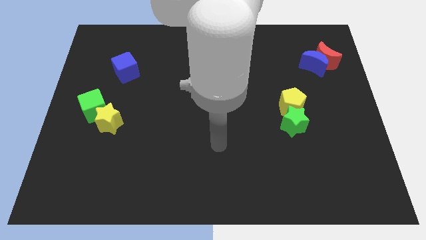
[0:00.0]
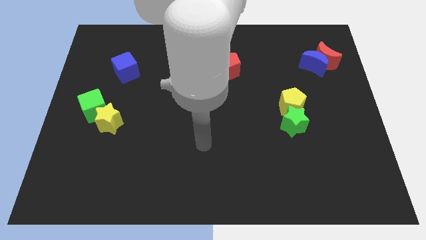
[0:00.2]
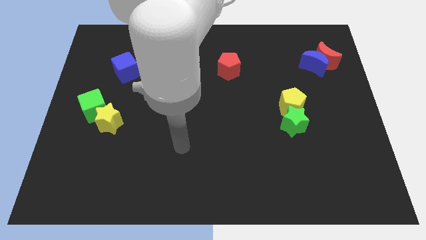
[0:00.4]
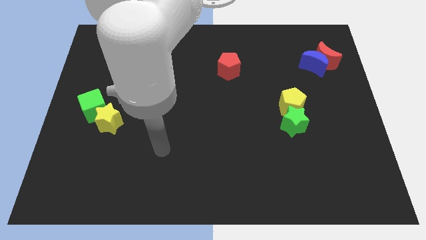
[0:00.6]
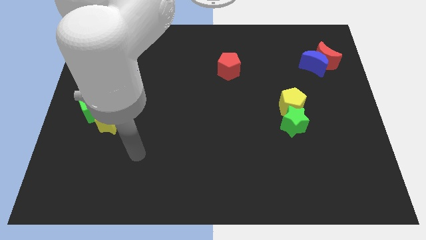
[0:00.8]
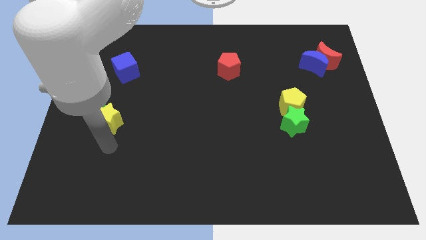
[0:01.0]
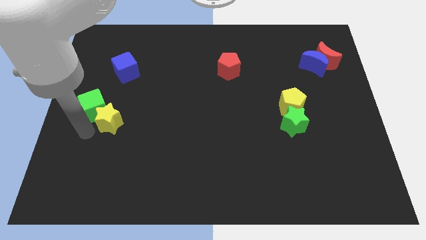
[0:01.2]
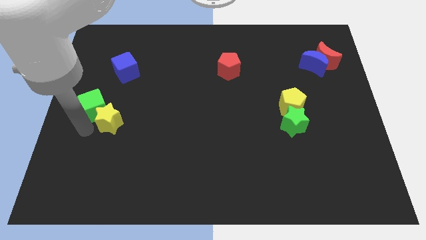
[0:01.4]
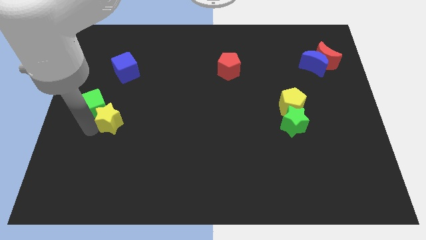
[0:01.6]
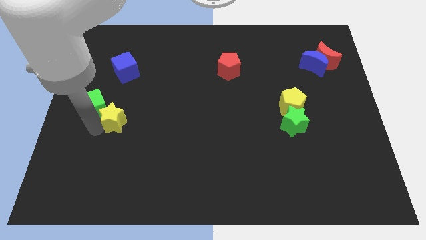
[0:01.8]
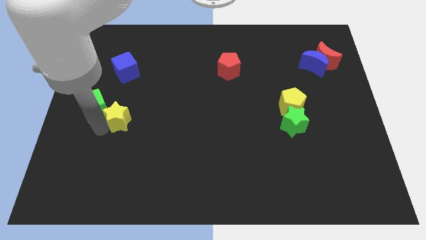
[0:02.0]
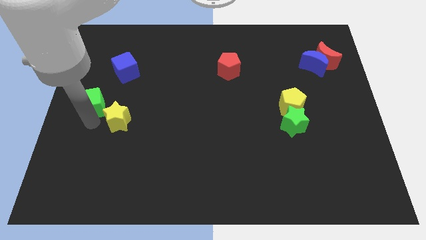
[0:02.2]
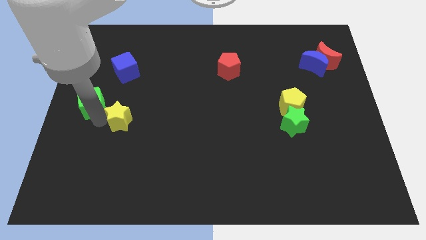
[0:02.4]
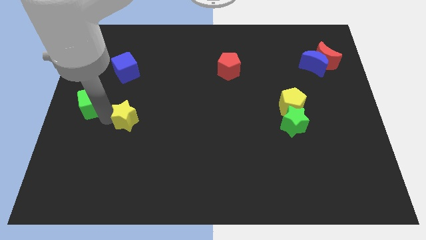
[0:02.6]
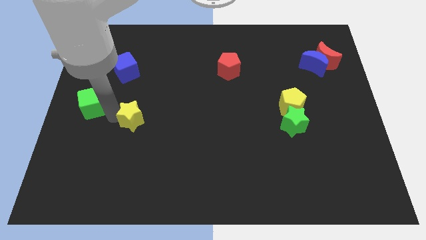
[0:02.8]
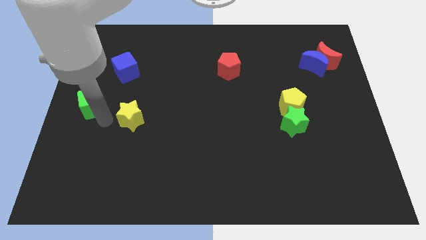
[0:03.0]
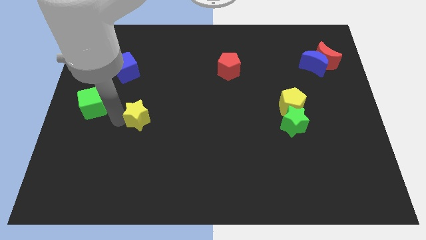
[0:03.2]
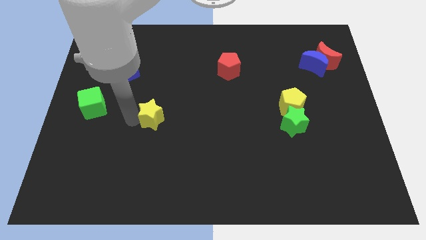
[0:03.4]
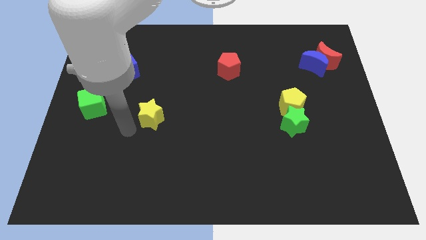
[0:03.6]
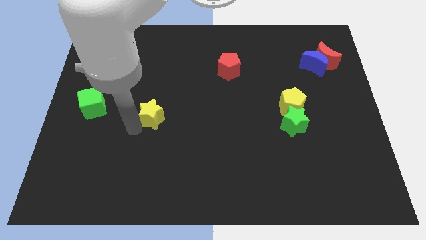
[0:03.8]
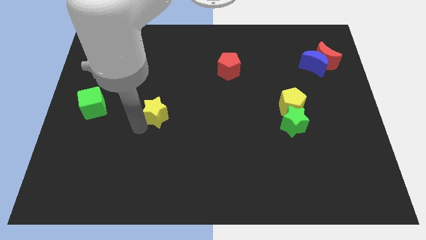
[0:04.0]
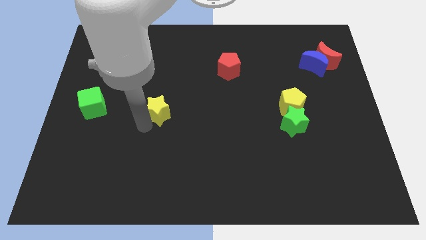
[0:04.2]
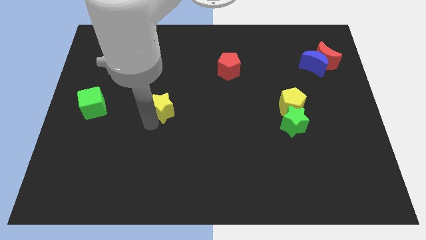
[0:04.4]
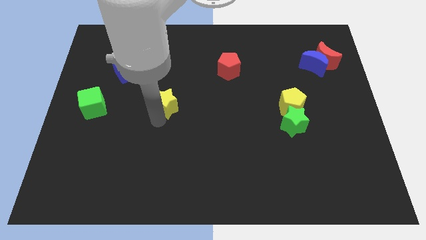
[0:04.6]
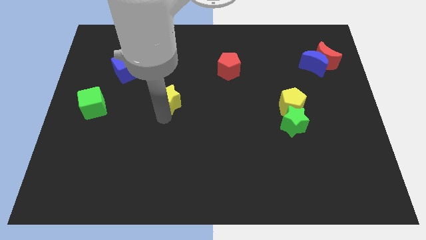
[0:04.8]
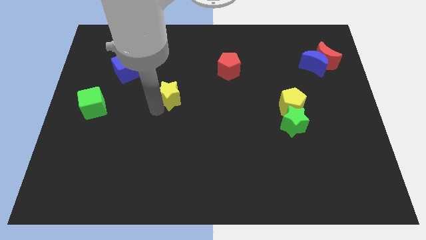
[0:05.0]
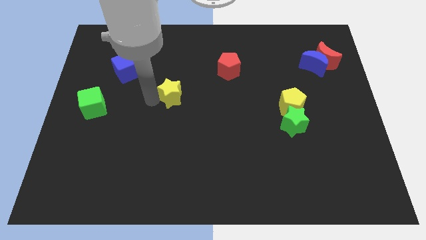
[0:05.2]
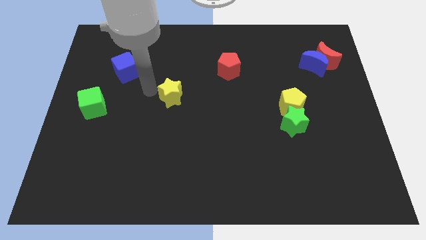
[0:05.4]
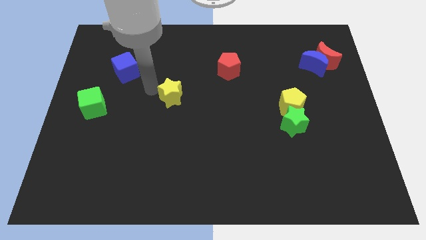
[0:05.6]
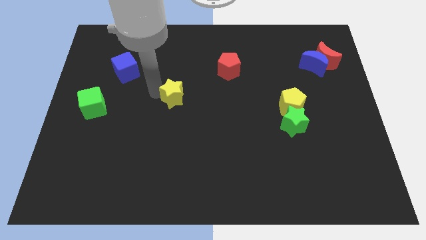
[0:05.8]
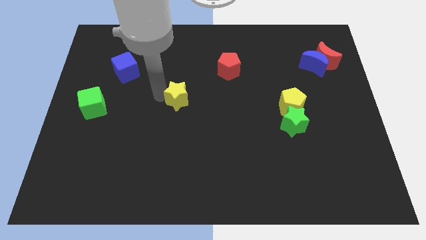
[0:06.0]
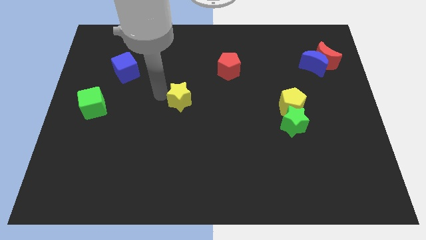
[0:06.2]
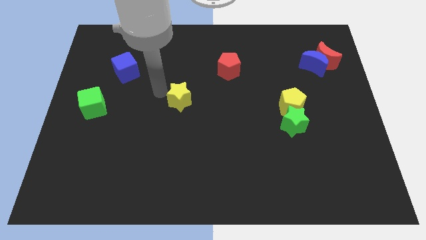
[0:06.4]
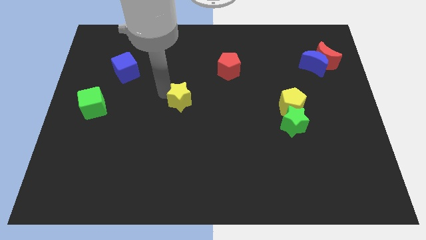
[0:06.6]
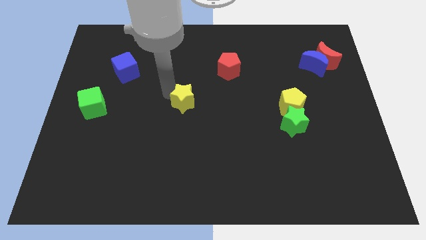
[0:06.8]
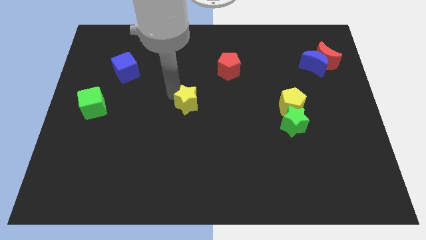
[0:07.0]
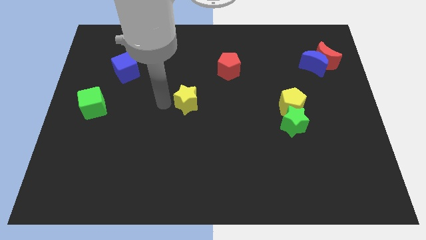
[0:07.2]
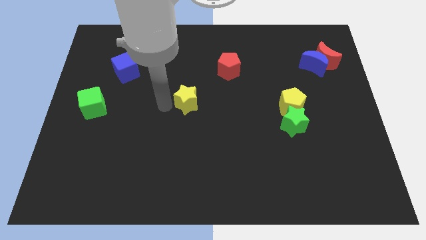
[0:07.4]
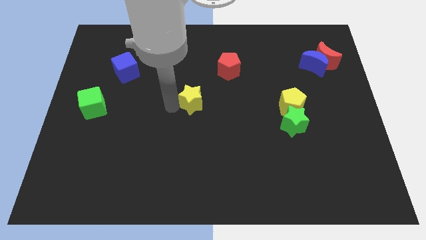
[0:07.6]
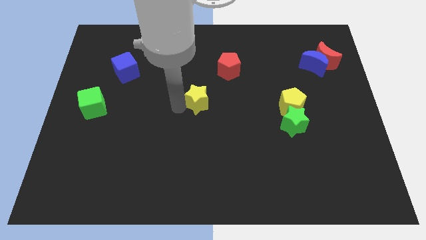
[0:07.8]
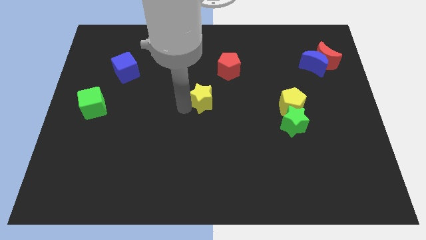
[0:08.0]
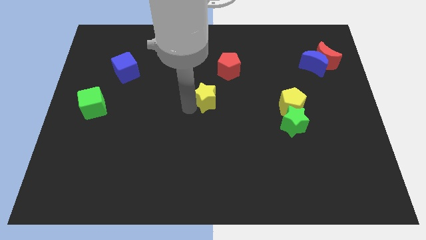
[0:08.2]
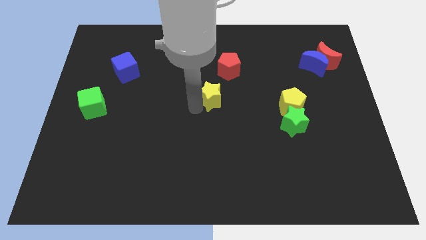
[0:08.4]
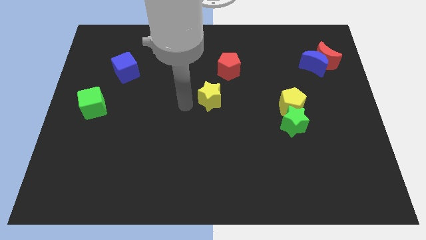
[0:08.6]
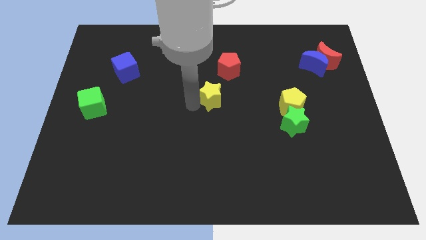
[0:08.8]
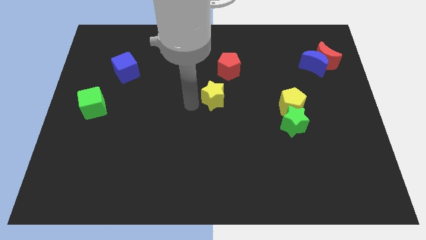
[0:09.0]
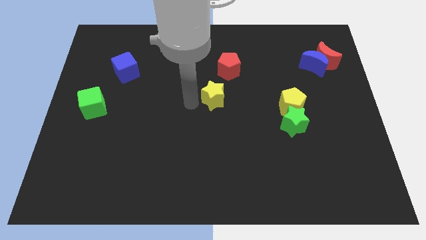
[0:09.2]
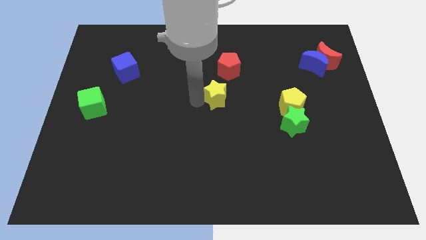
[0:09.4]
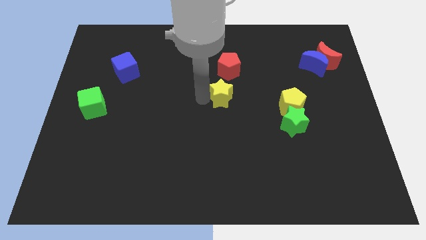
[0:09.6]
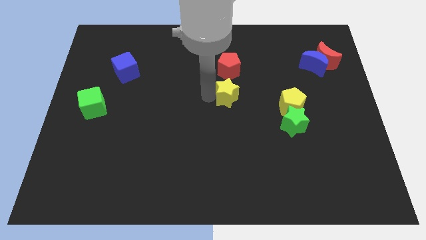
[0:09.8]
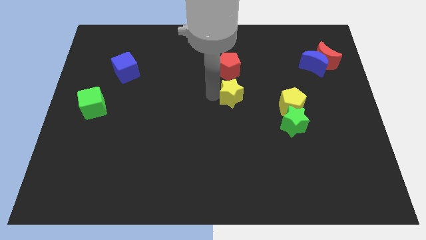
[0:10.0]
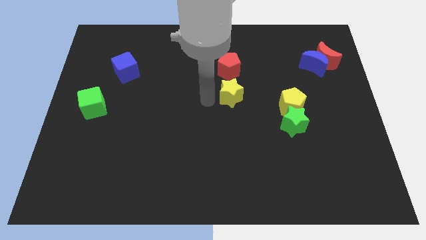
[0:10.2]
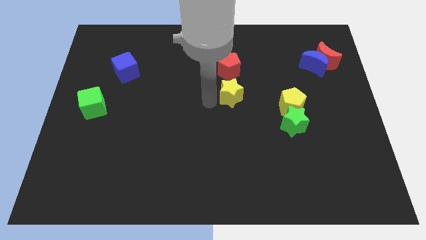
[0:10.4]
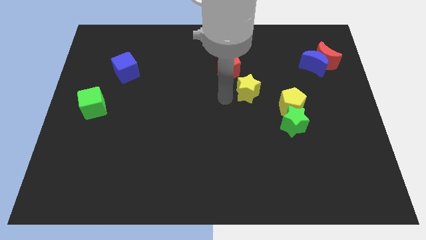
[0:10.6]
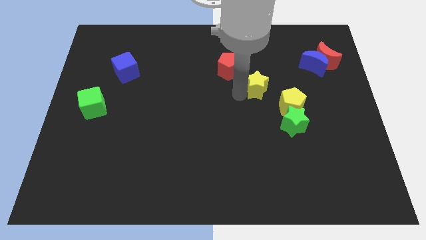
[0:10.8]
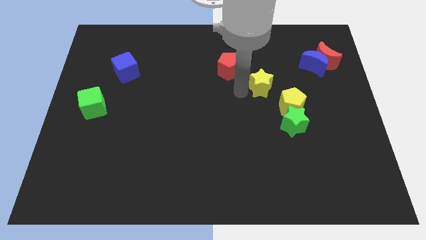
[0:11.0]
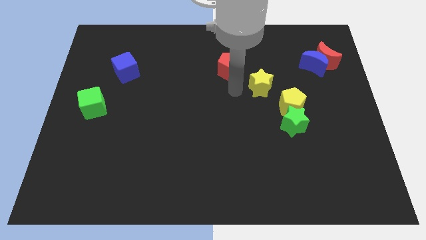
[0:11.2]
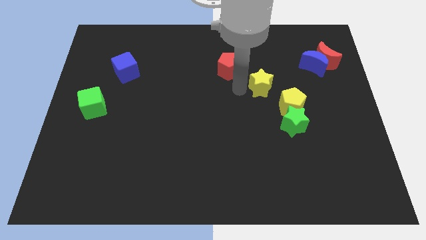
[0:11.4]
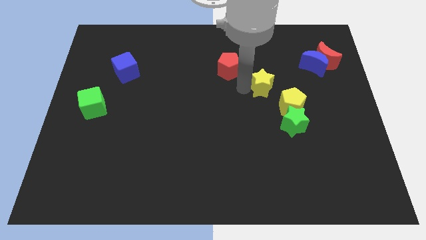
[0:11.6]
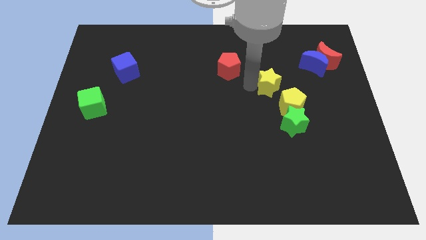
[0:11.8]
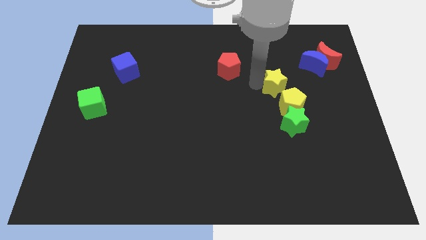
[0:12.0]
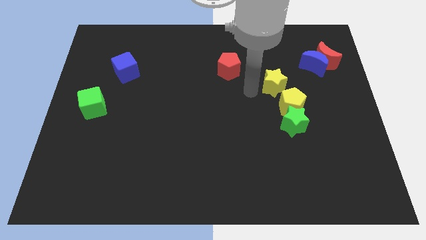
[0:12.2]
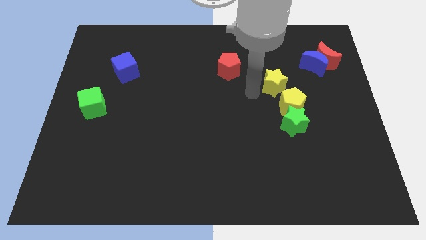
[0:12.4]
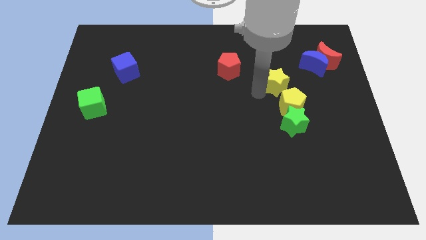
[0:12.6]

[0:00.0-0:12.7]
move the yellow star to the bottom left of the blue moon

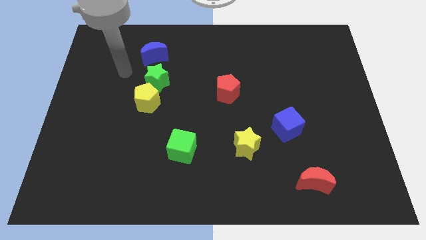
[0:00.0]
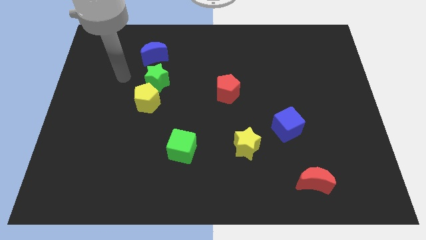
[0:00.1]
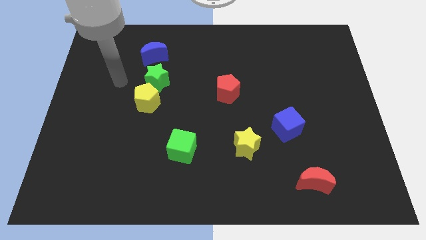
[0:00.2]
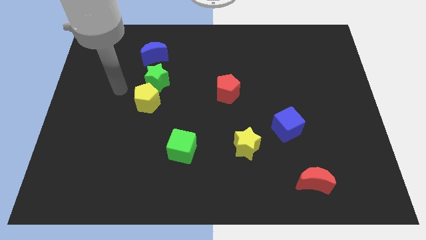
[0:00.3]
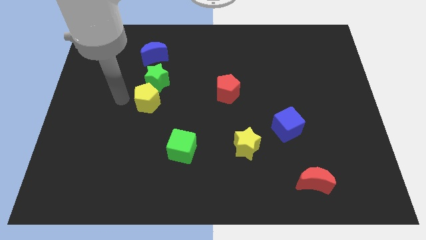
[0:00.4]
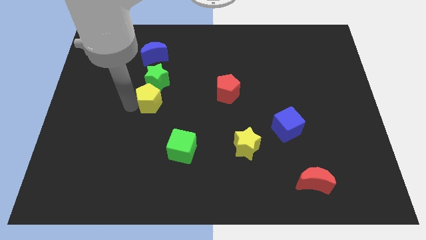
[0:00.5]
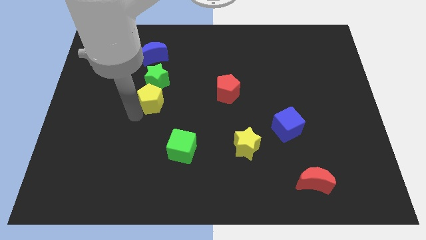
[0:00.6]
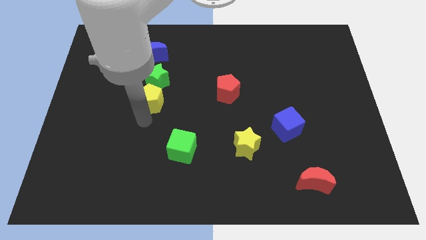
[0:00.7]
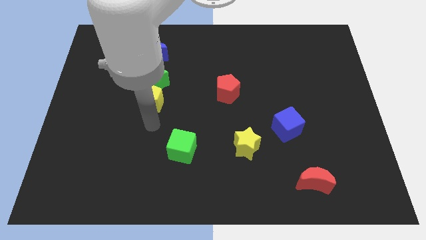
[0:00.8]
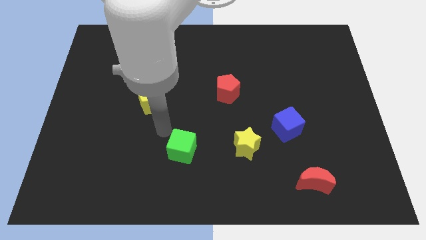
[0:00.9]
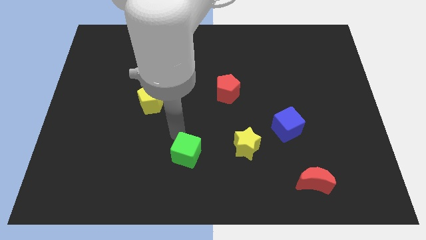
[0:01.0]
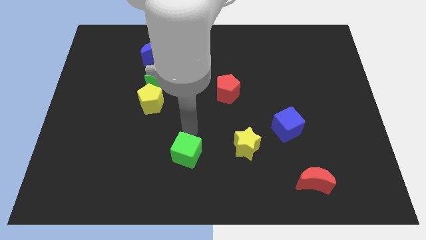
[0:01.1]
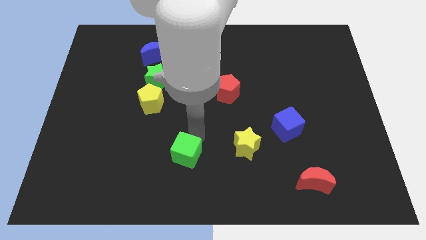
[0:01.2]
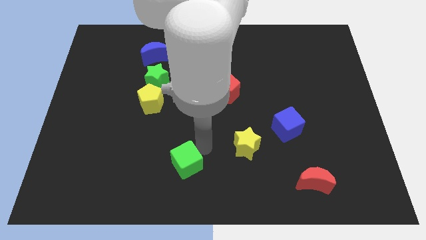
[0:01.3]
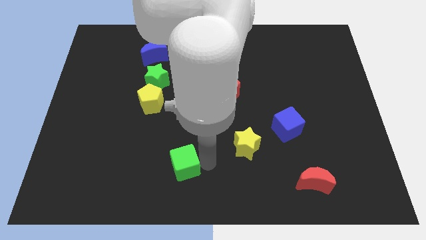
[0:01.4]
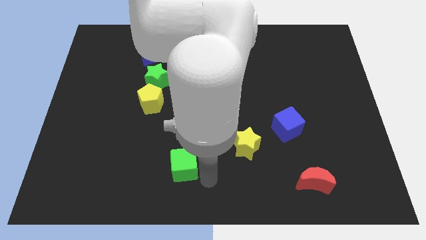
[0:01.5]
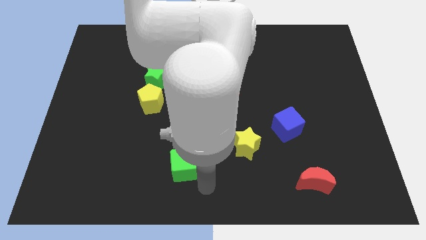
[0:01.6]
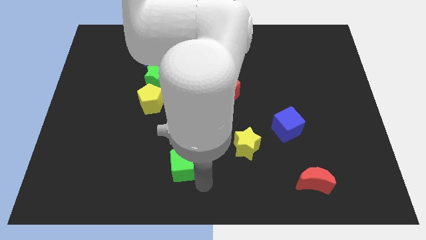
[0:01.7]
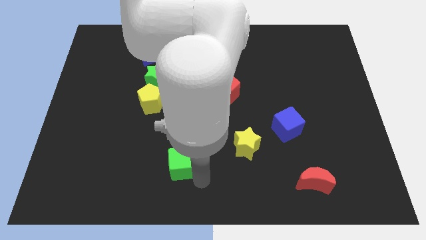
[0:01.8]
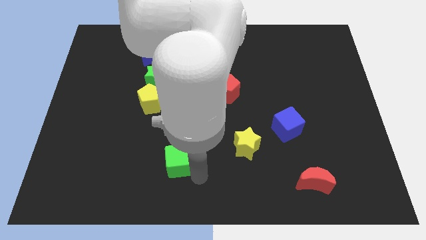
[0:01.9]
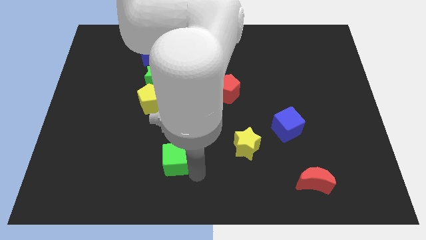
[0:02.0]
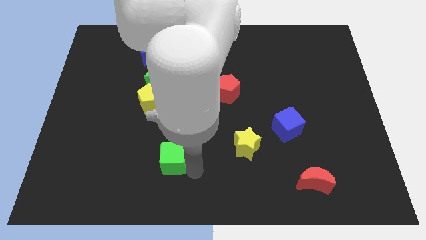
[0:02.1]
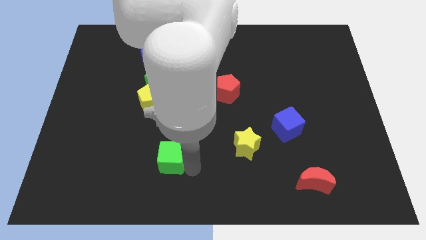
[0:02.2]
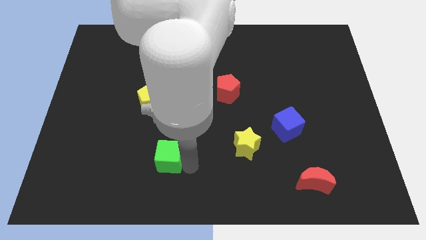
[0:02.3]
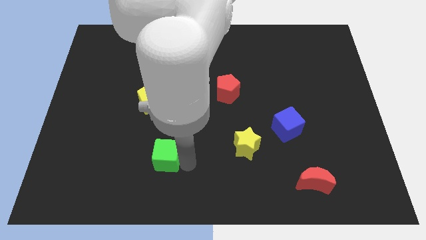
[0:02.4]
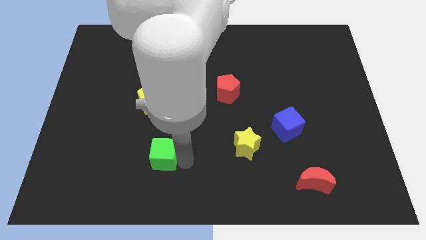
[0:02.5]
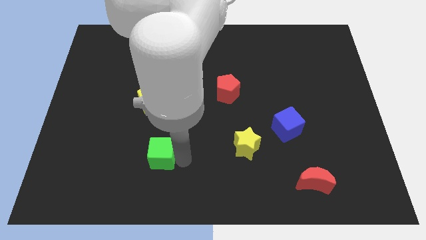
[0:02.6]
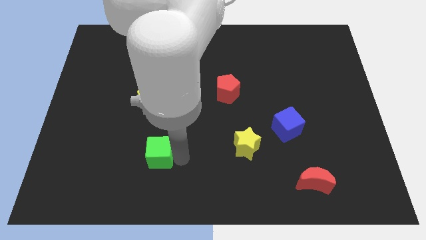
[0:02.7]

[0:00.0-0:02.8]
move the green cube to the bottom side of the yellow pentagon
